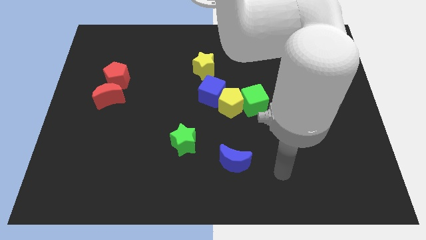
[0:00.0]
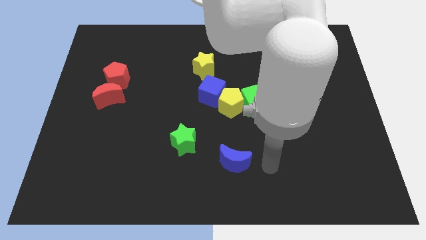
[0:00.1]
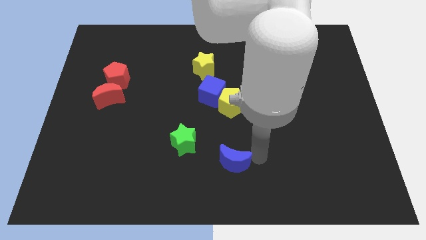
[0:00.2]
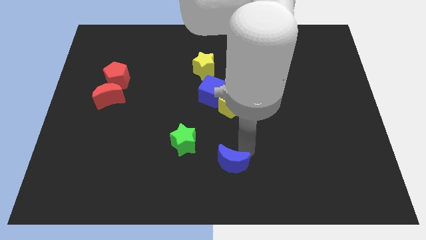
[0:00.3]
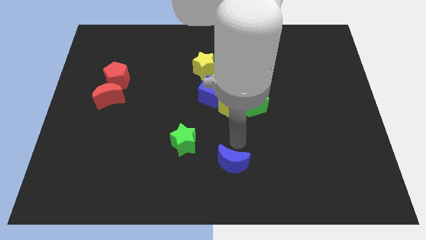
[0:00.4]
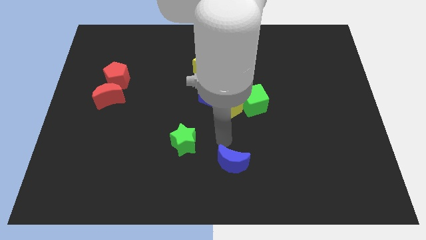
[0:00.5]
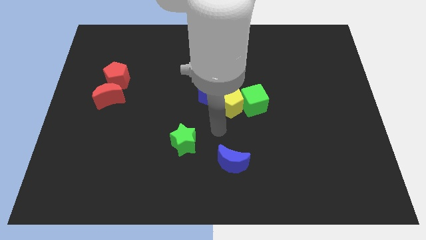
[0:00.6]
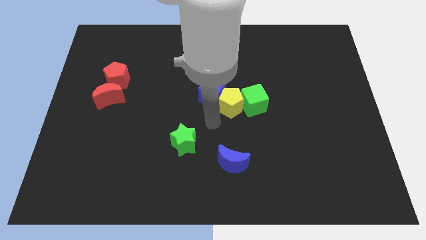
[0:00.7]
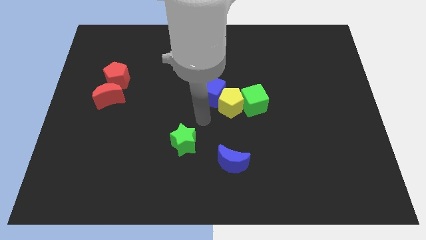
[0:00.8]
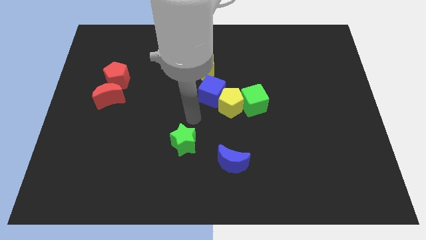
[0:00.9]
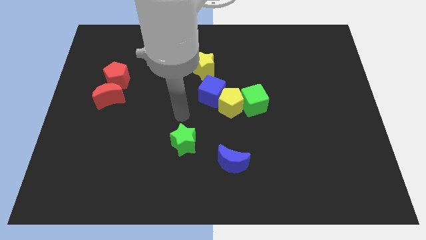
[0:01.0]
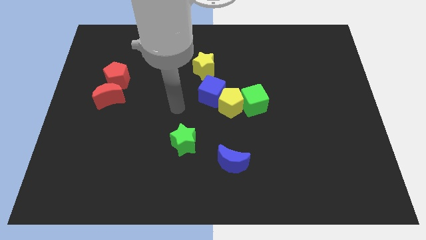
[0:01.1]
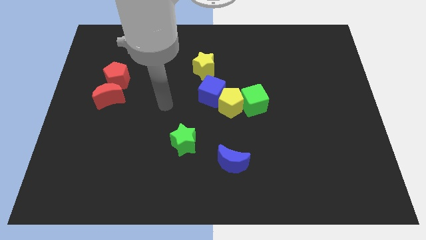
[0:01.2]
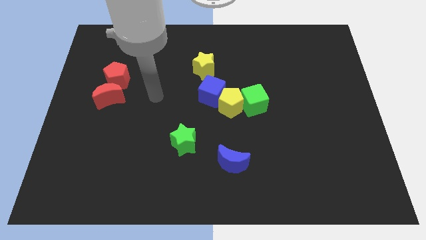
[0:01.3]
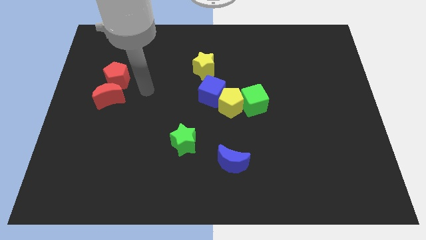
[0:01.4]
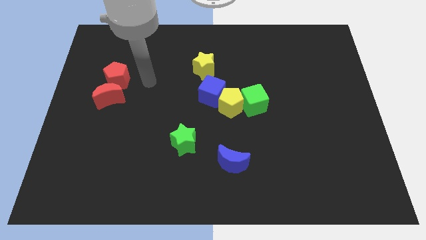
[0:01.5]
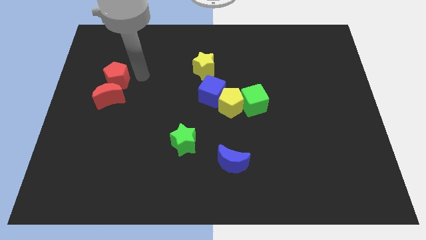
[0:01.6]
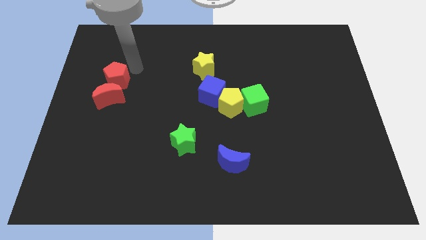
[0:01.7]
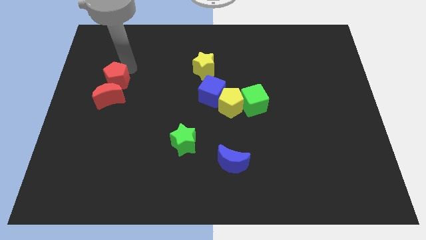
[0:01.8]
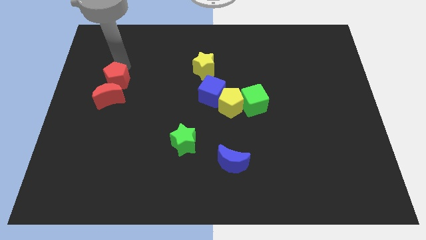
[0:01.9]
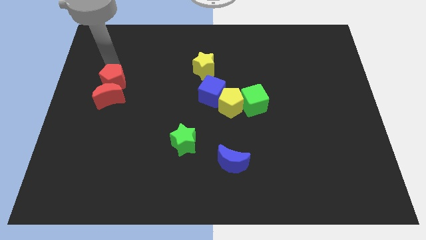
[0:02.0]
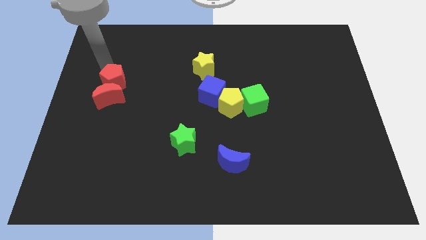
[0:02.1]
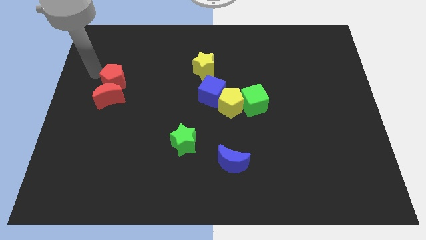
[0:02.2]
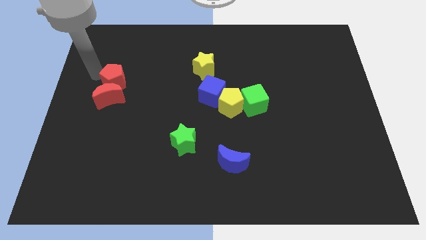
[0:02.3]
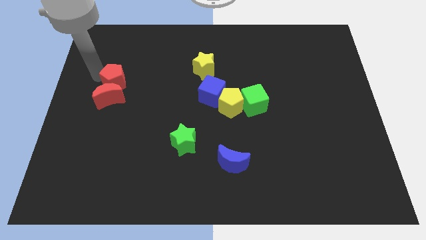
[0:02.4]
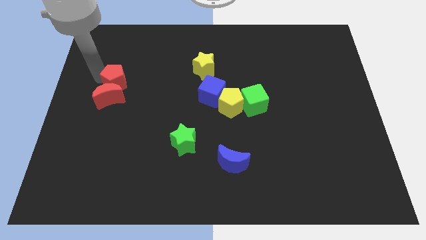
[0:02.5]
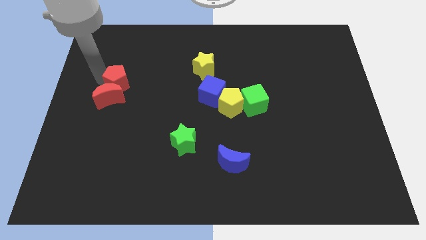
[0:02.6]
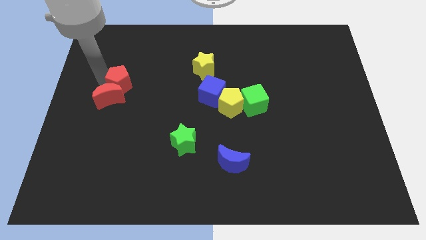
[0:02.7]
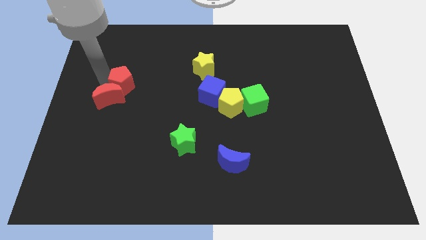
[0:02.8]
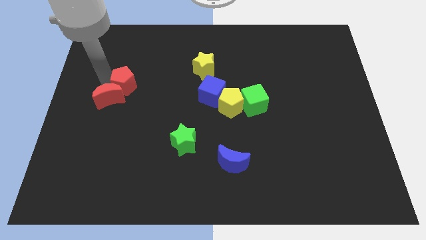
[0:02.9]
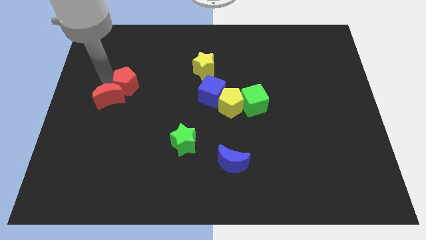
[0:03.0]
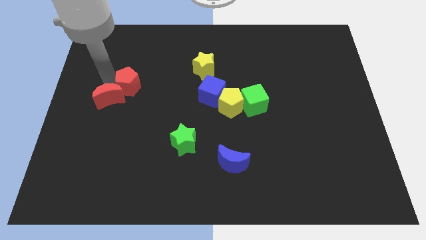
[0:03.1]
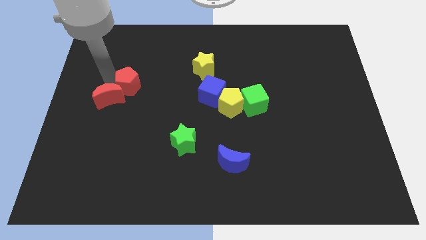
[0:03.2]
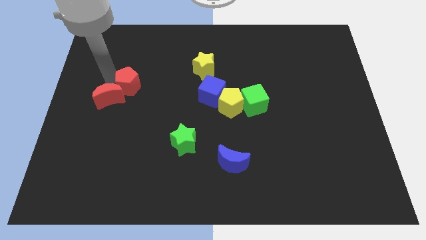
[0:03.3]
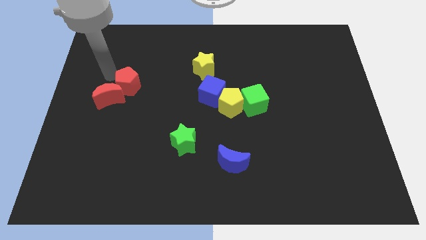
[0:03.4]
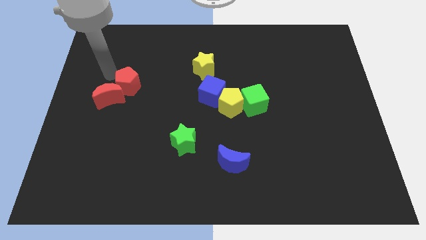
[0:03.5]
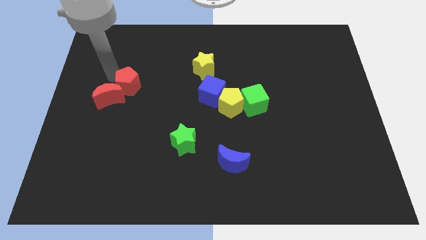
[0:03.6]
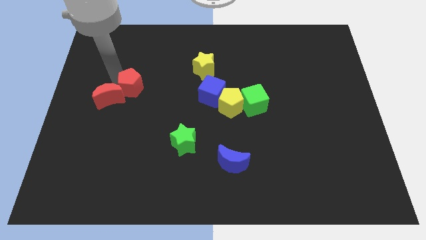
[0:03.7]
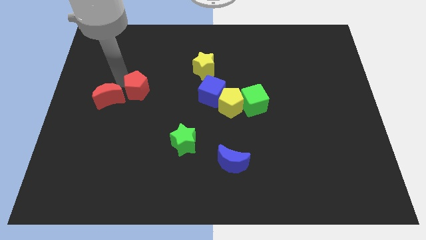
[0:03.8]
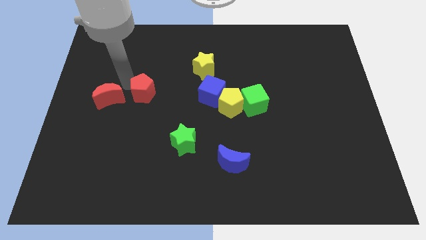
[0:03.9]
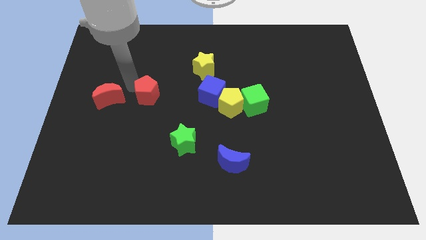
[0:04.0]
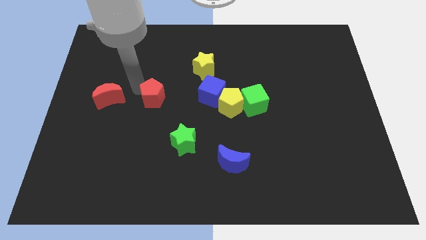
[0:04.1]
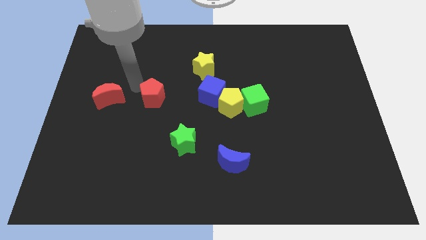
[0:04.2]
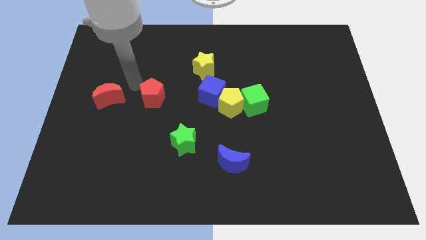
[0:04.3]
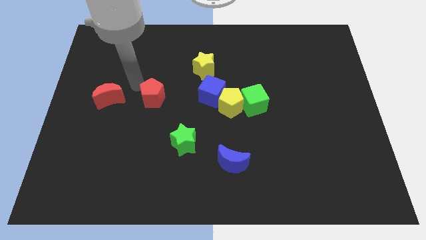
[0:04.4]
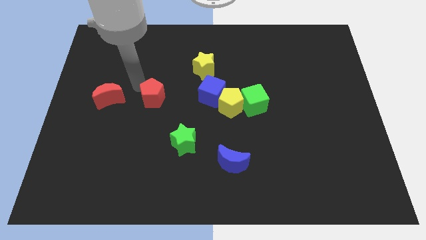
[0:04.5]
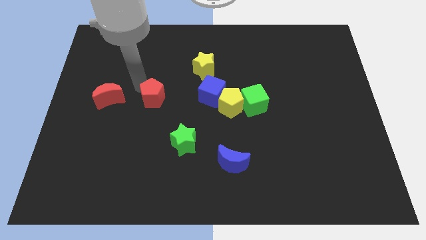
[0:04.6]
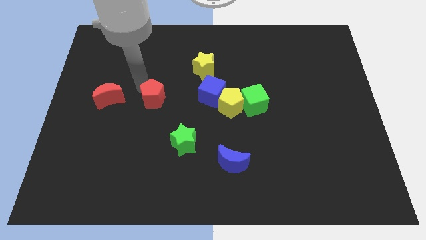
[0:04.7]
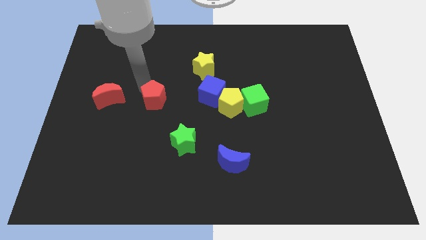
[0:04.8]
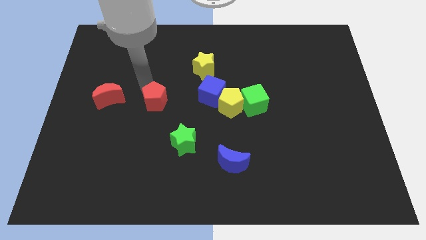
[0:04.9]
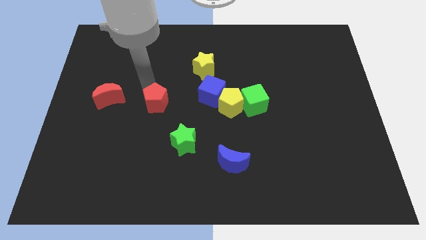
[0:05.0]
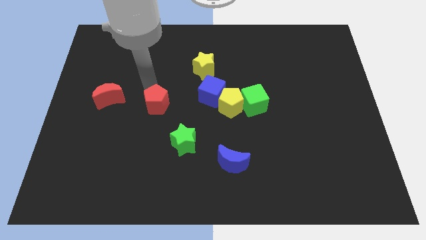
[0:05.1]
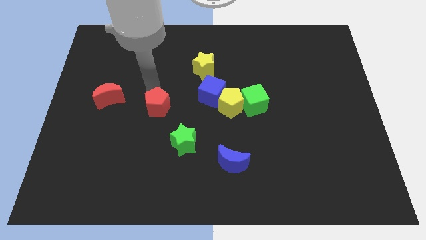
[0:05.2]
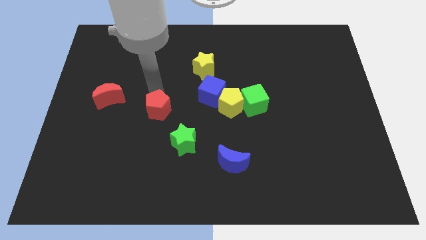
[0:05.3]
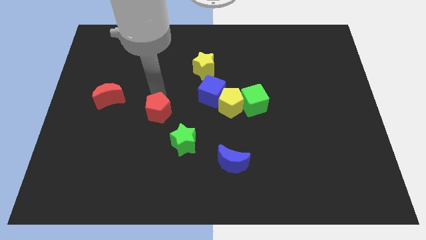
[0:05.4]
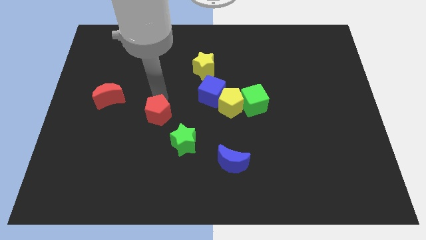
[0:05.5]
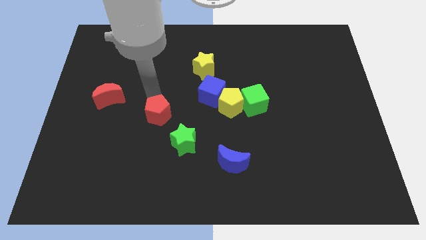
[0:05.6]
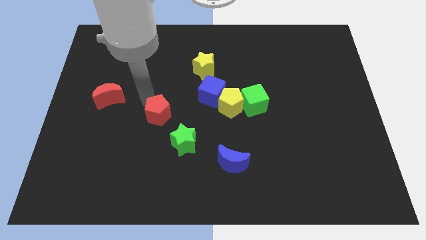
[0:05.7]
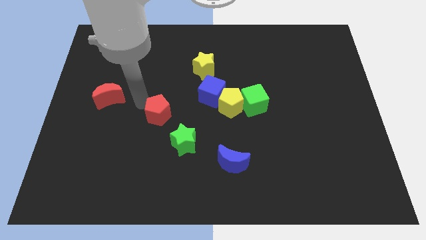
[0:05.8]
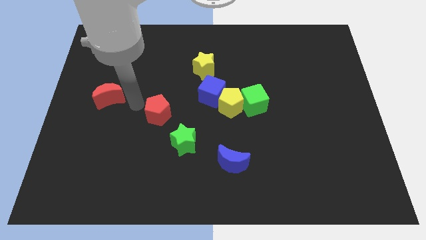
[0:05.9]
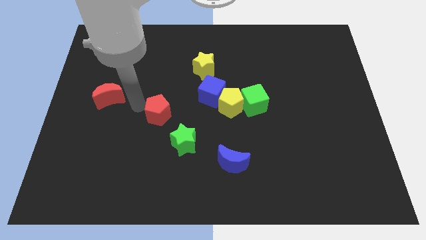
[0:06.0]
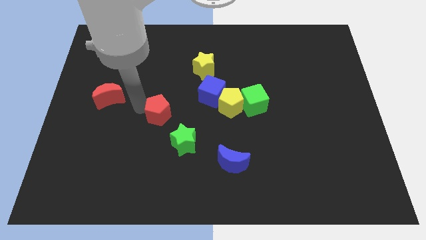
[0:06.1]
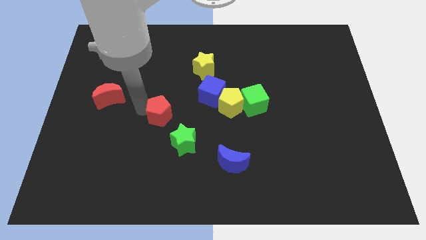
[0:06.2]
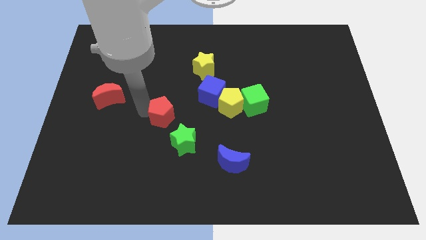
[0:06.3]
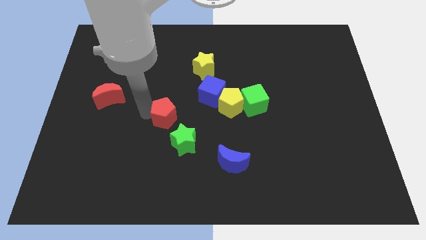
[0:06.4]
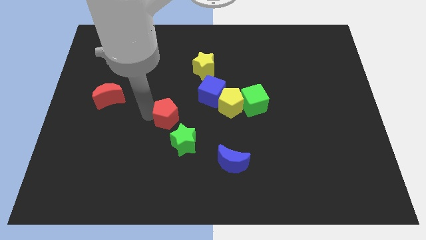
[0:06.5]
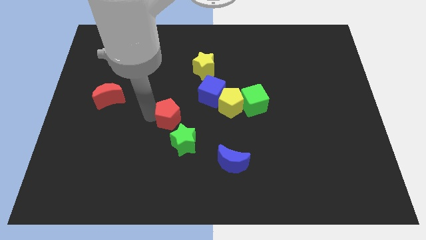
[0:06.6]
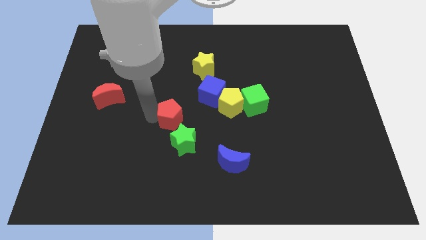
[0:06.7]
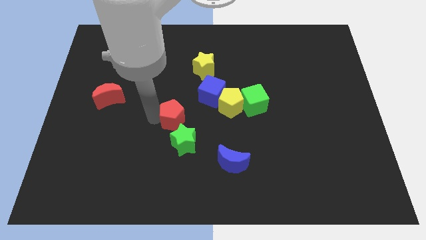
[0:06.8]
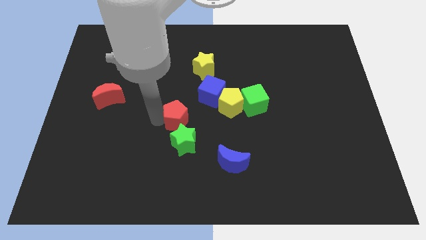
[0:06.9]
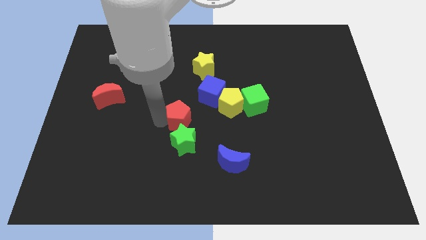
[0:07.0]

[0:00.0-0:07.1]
slide the red pentagon downwards and then to the right

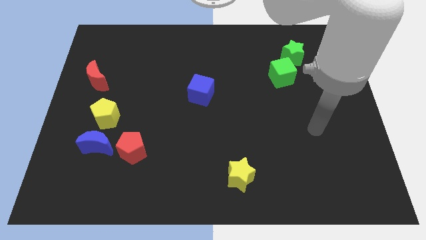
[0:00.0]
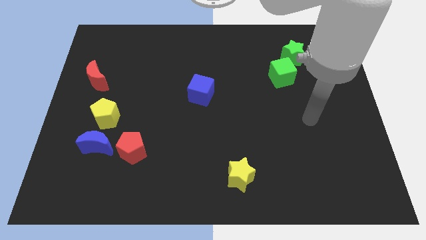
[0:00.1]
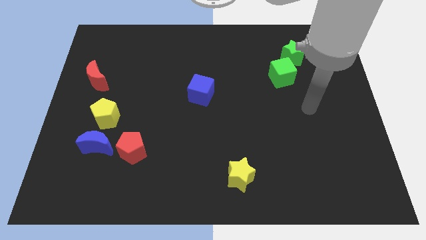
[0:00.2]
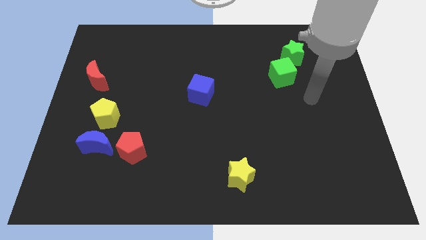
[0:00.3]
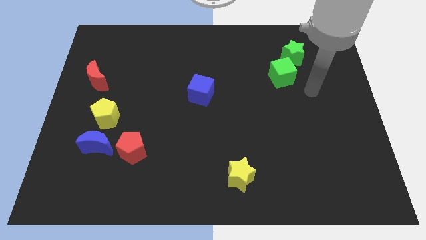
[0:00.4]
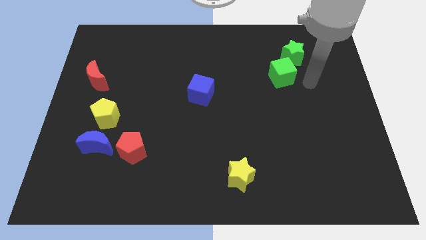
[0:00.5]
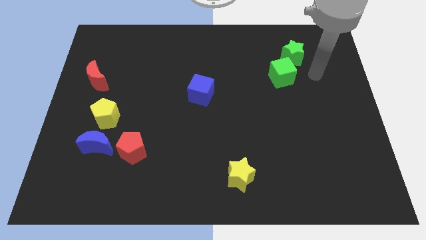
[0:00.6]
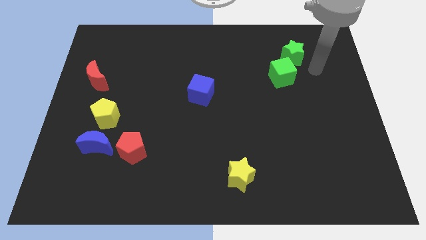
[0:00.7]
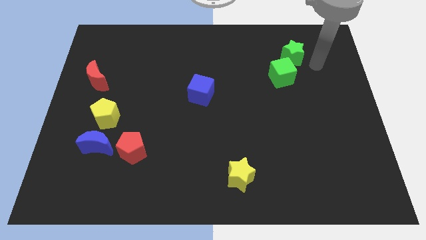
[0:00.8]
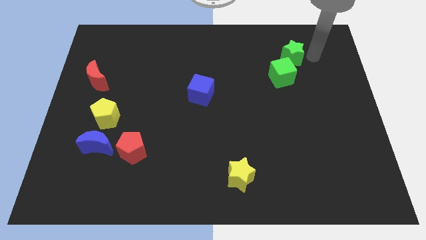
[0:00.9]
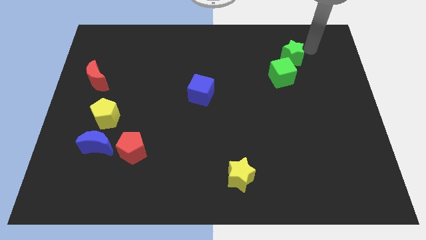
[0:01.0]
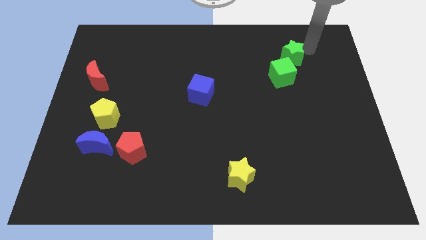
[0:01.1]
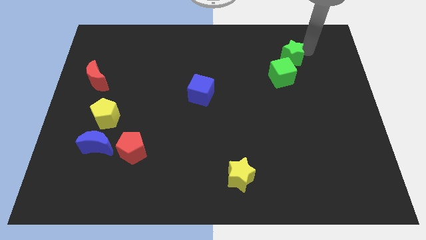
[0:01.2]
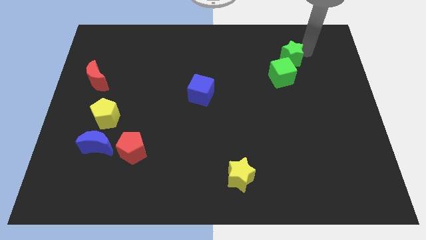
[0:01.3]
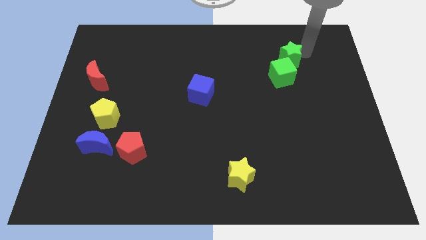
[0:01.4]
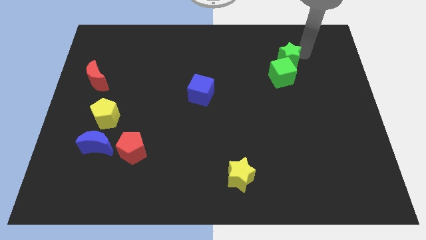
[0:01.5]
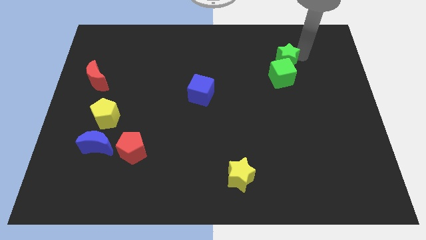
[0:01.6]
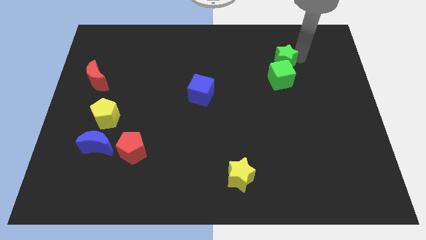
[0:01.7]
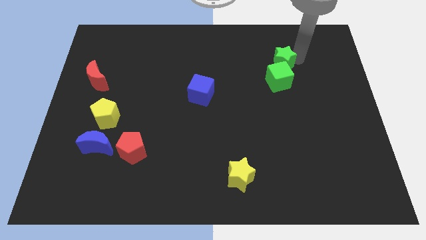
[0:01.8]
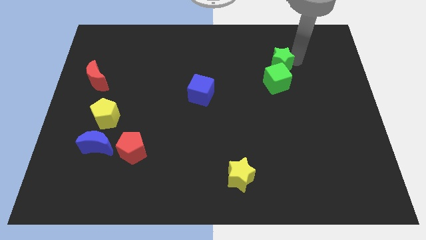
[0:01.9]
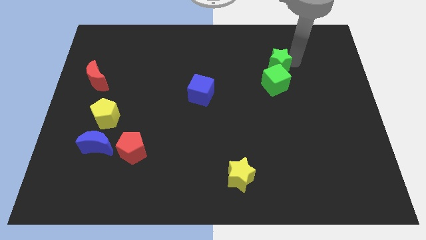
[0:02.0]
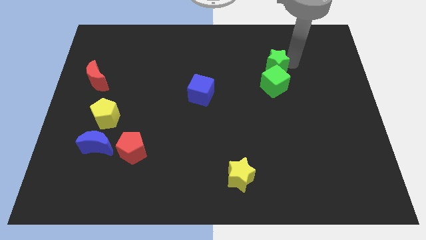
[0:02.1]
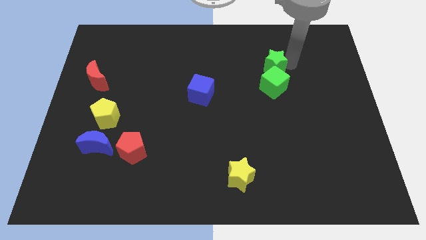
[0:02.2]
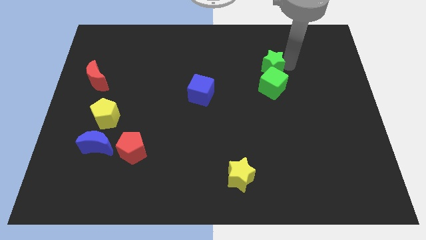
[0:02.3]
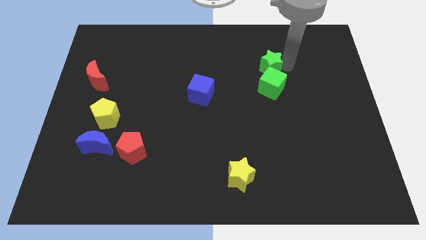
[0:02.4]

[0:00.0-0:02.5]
slightly slide the green star diagonally downwards and left
